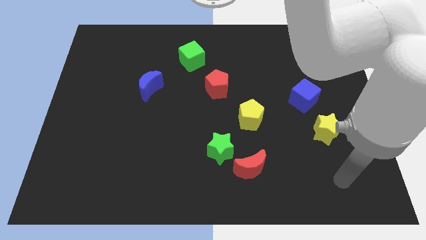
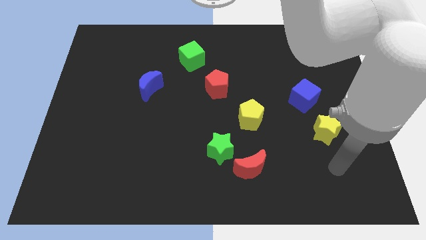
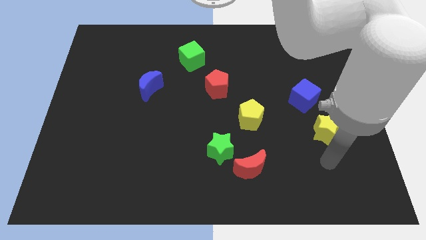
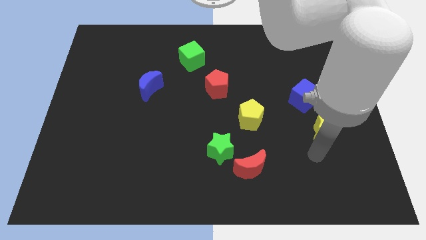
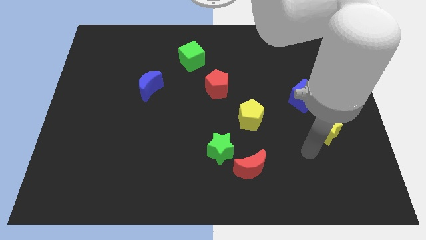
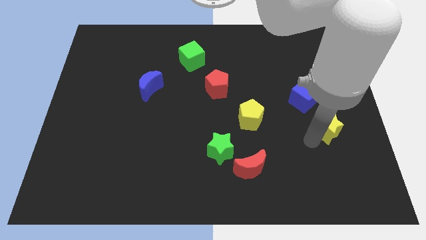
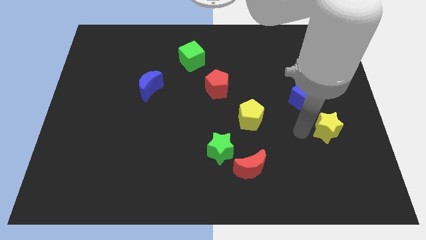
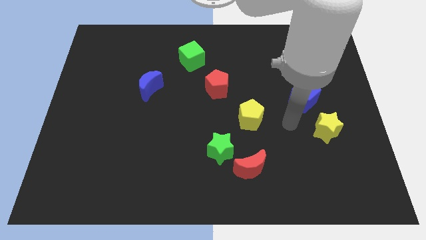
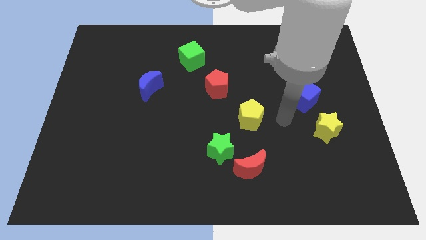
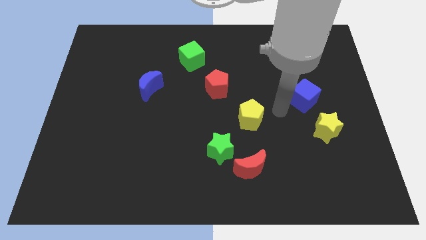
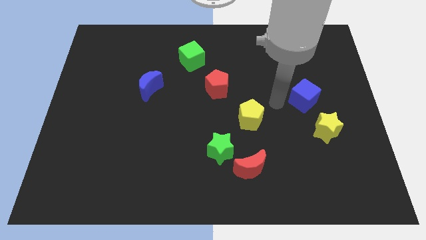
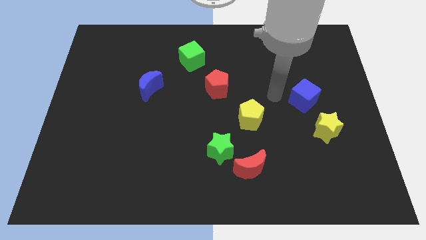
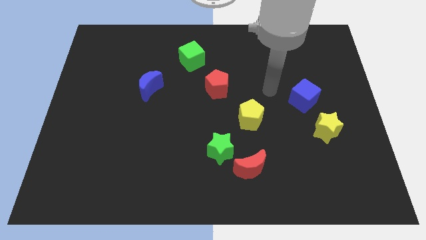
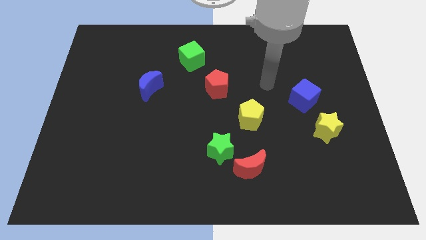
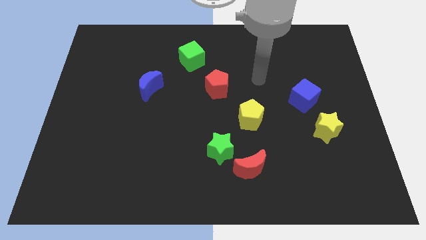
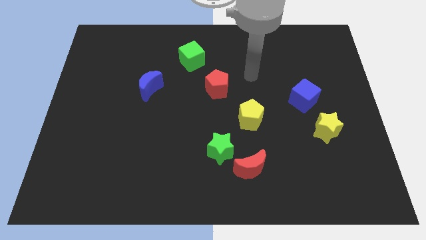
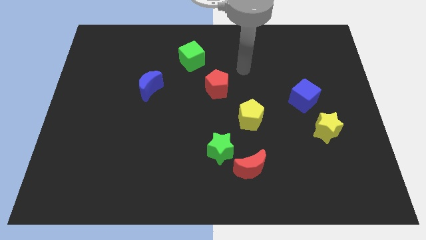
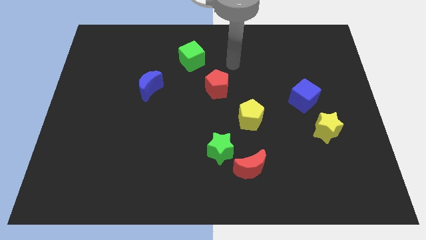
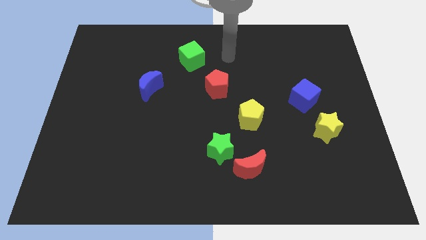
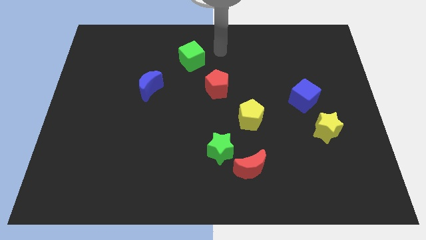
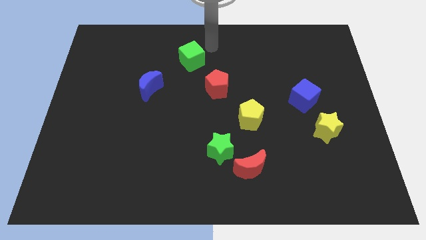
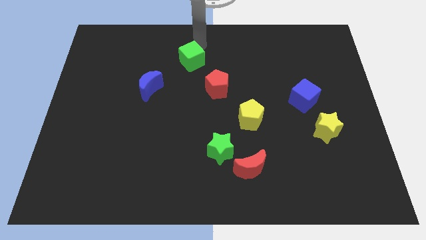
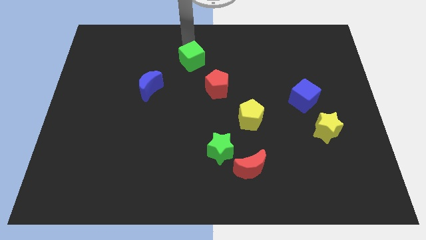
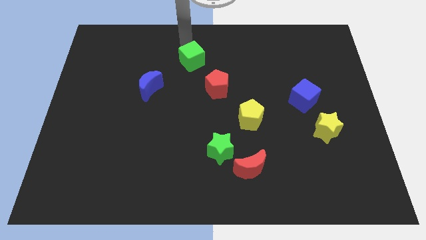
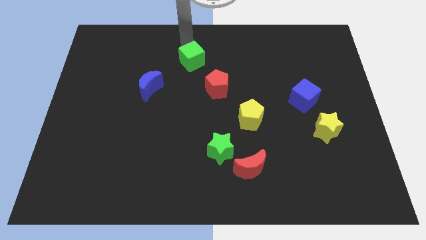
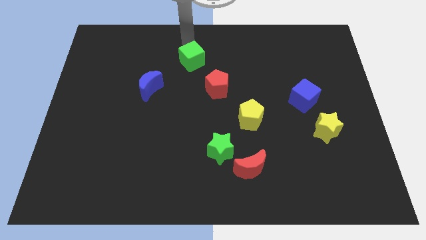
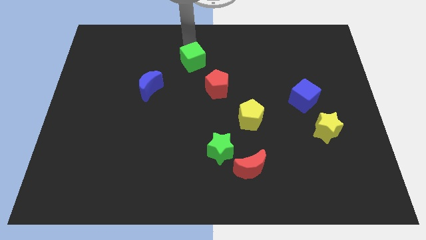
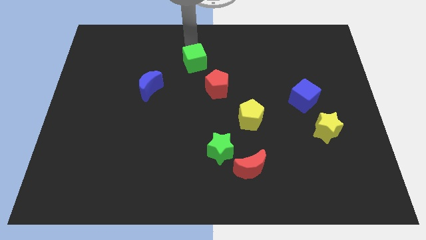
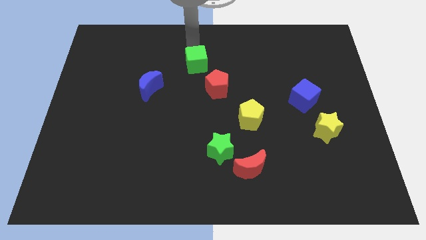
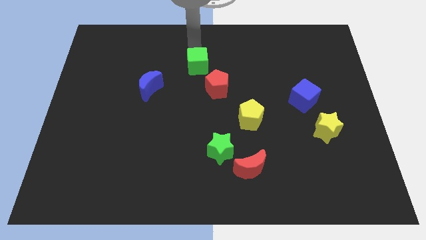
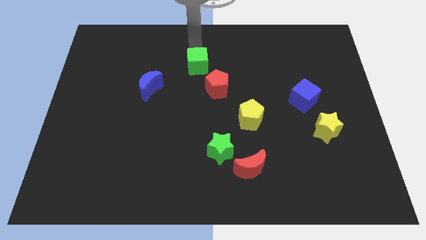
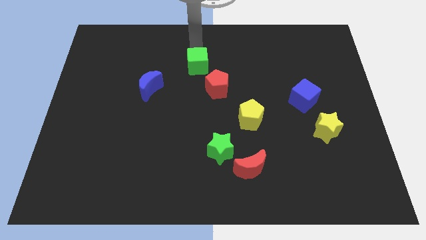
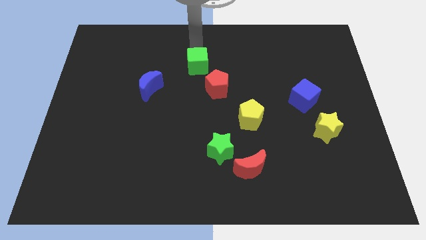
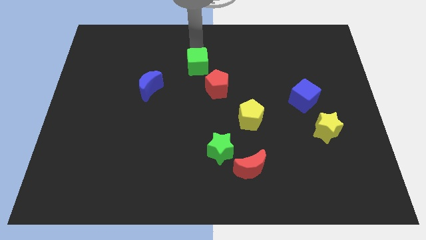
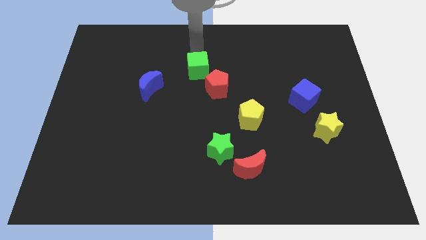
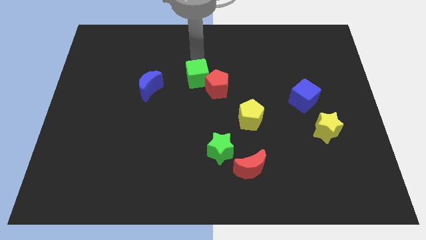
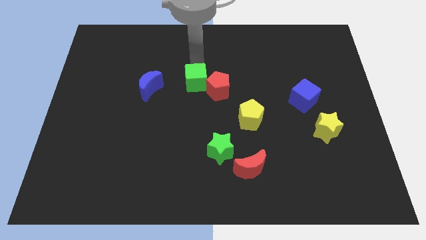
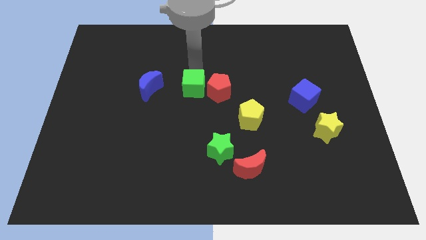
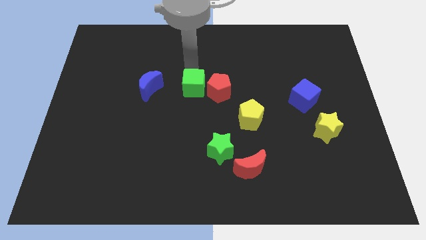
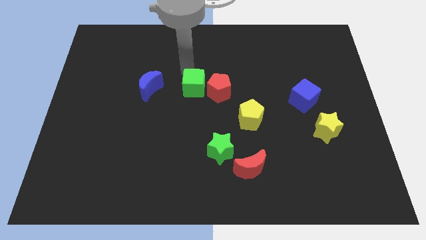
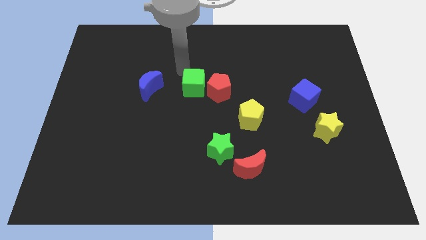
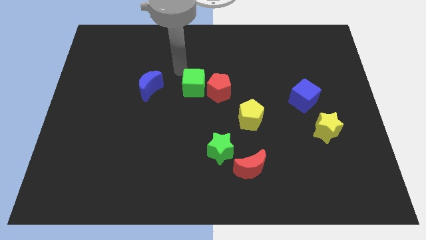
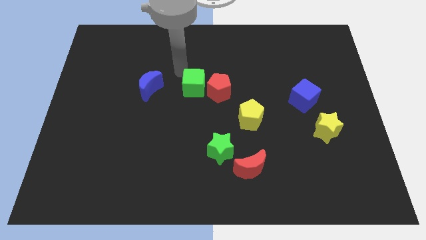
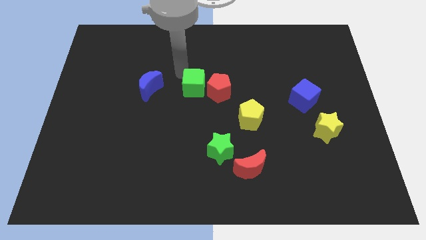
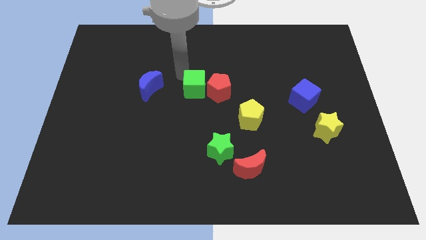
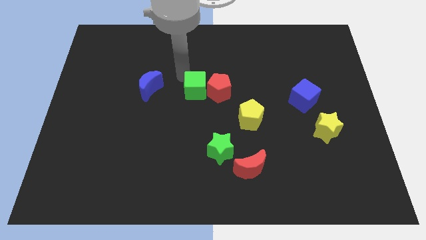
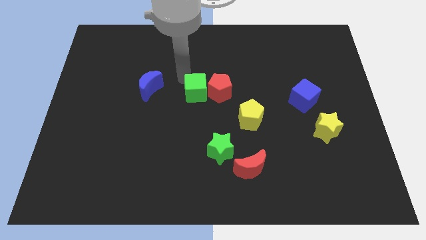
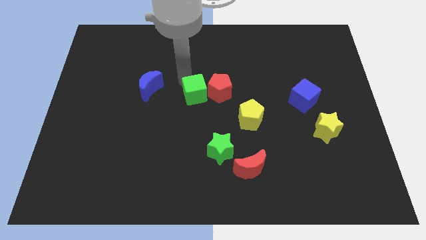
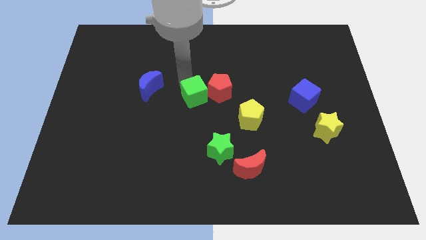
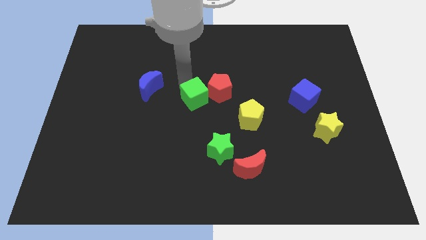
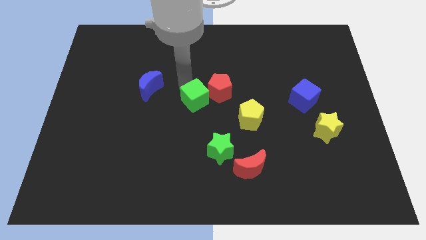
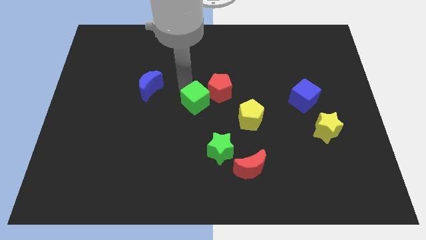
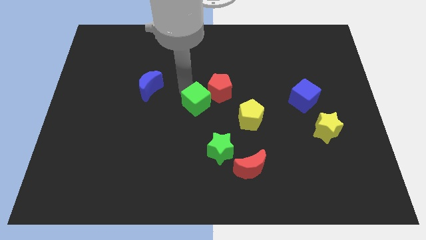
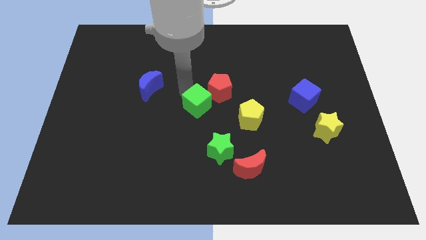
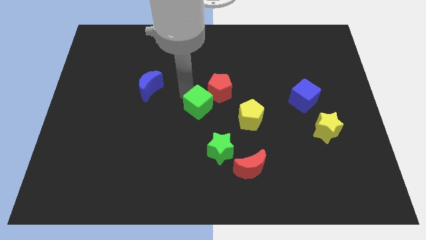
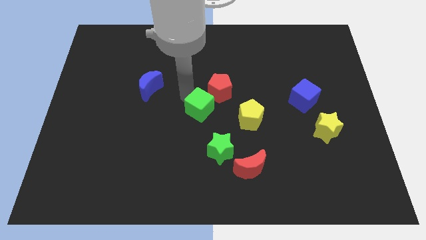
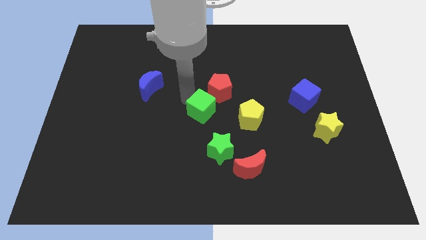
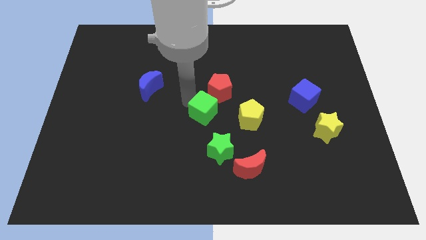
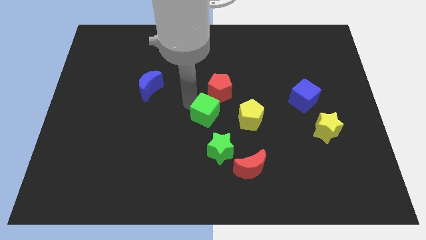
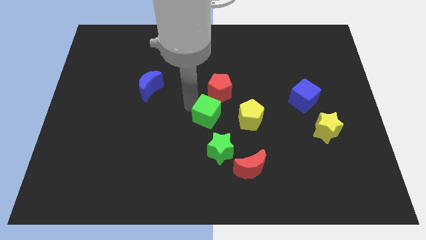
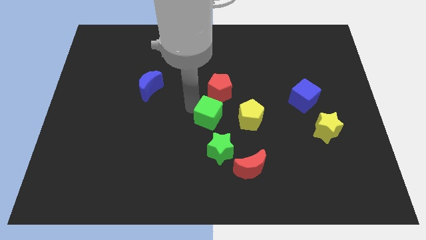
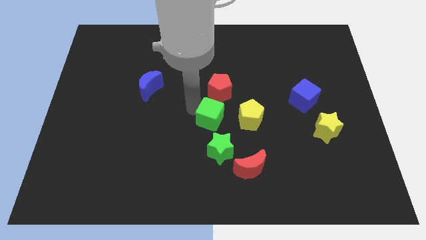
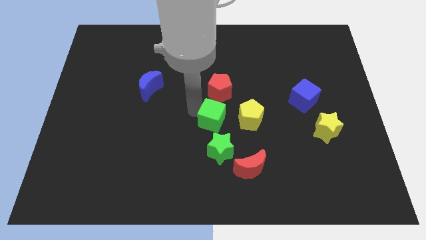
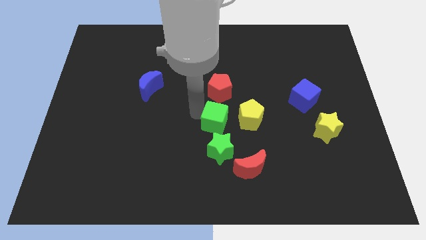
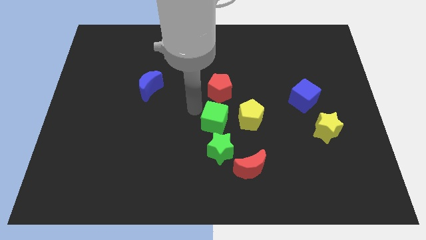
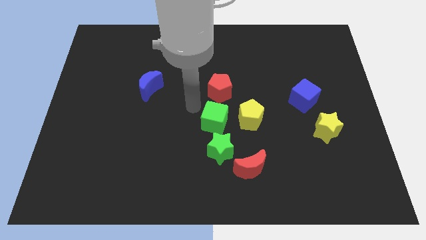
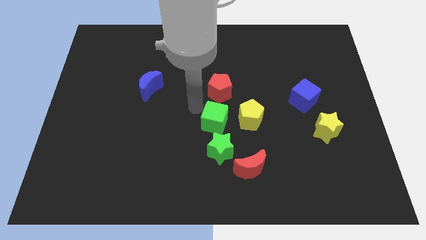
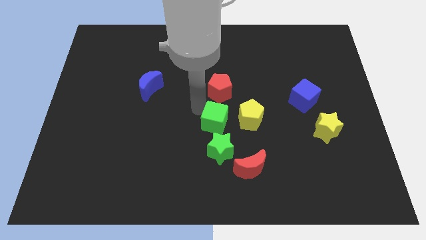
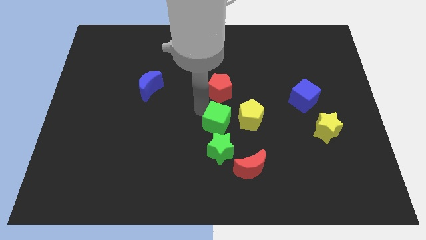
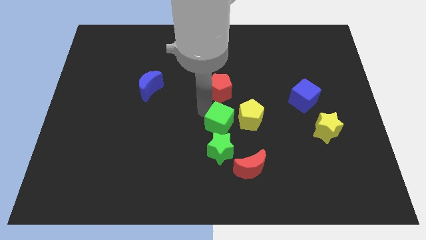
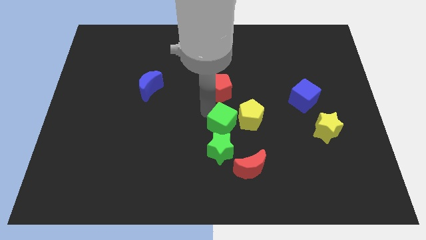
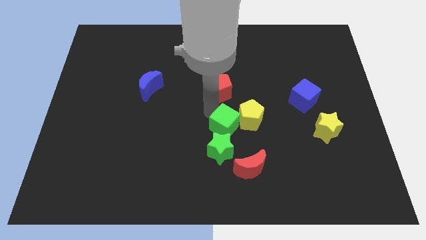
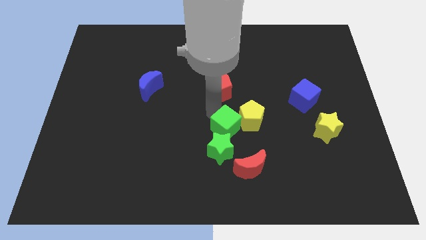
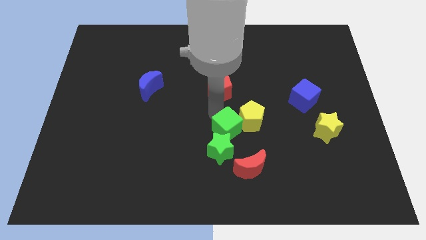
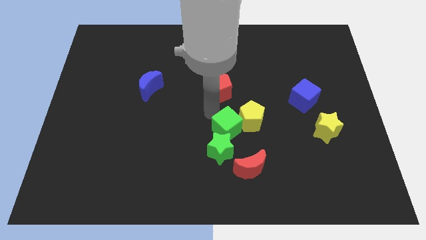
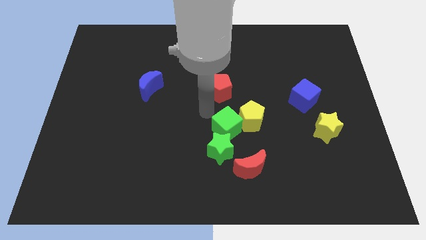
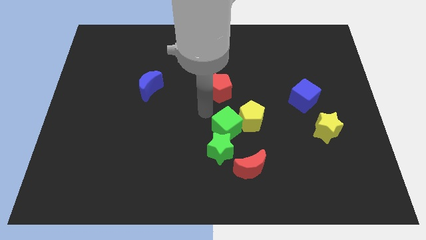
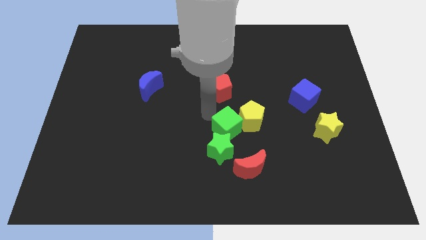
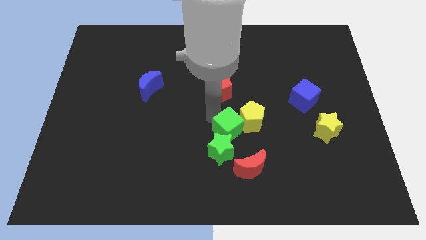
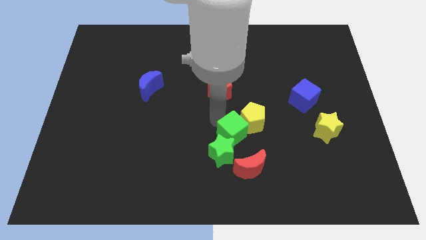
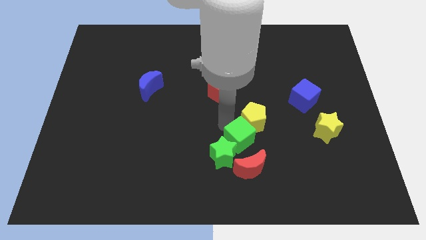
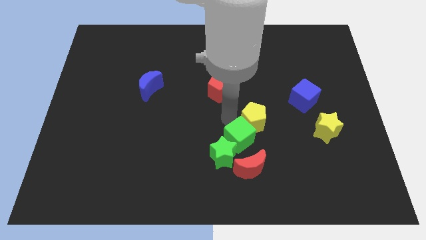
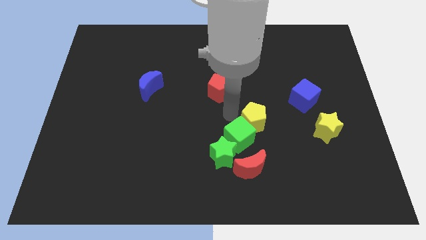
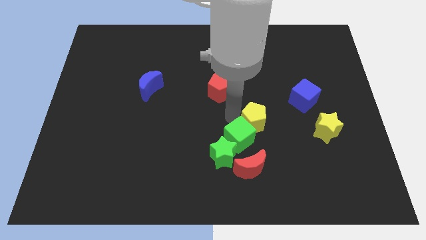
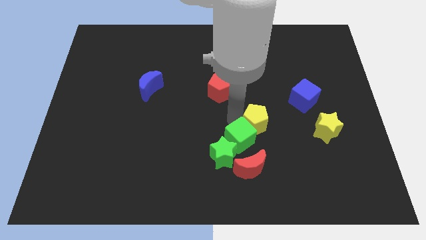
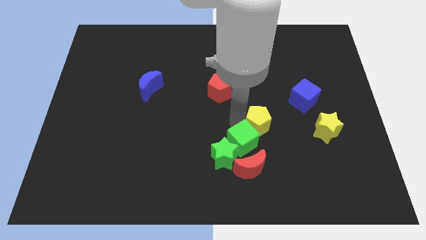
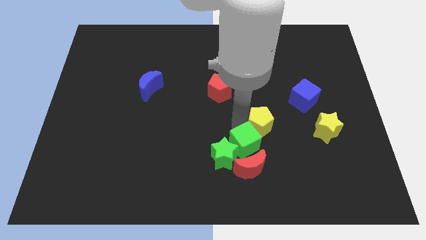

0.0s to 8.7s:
slide the green cube next to the red moon
